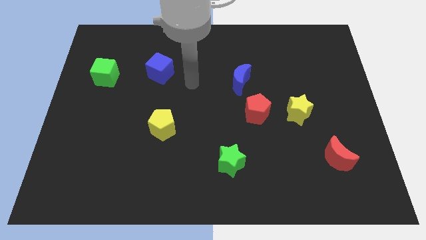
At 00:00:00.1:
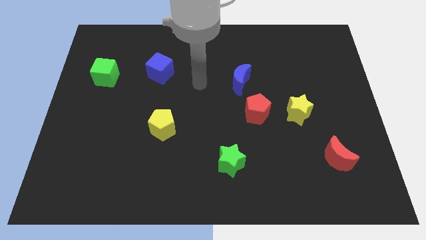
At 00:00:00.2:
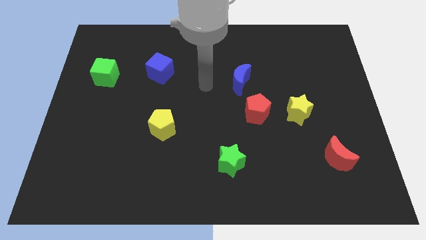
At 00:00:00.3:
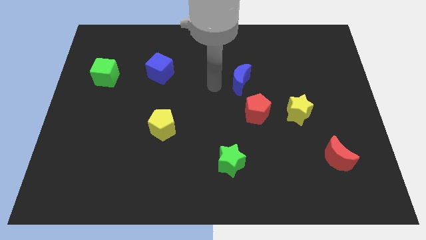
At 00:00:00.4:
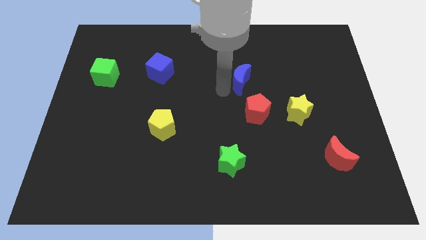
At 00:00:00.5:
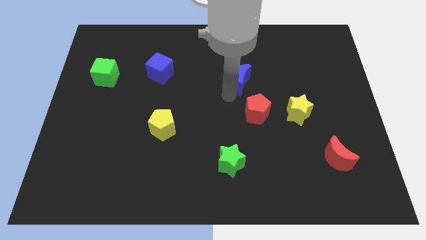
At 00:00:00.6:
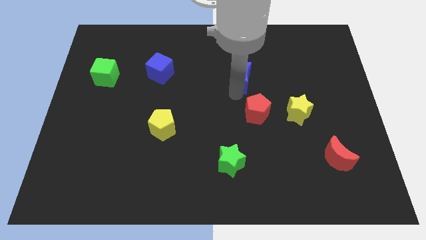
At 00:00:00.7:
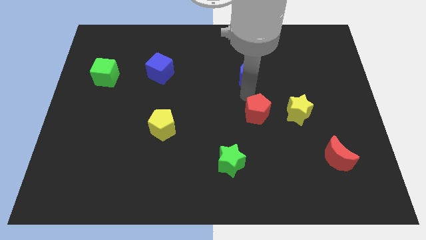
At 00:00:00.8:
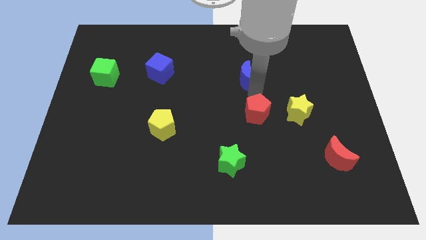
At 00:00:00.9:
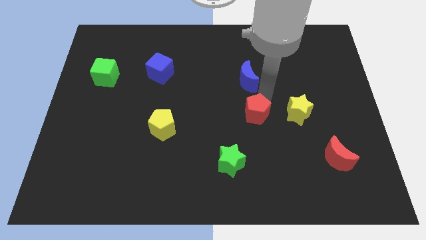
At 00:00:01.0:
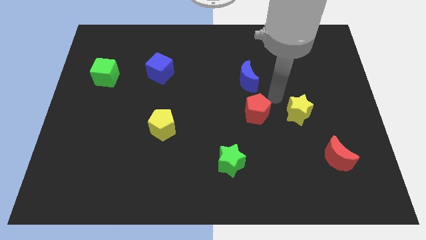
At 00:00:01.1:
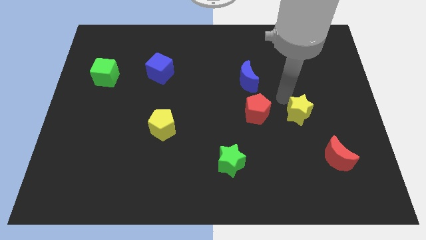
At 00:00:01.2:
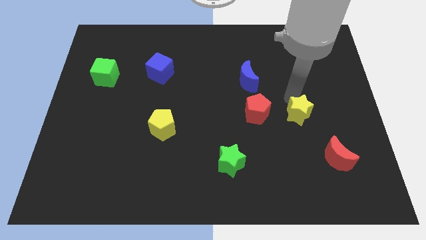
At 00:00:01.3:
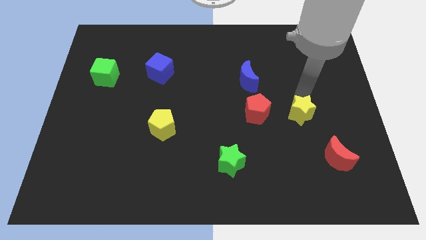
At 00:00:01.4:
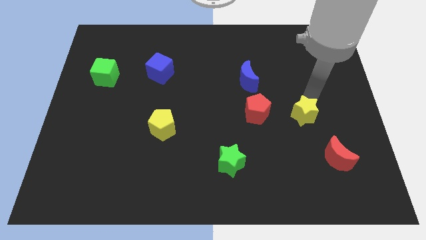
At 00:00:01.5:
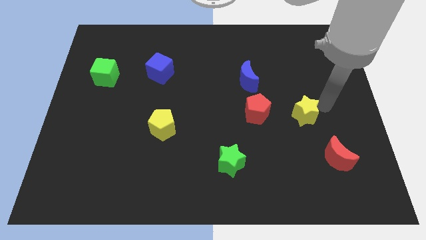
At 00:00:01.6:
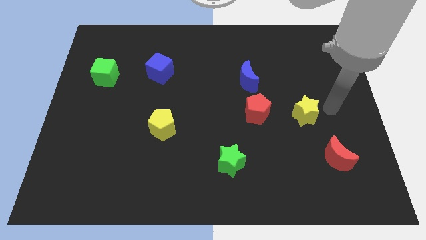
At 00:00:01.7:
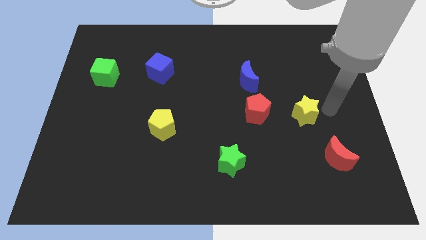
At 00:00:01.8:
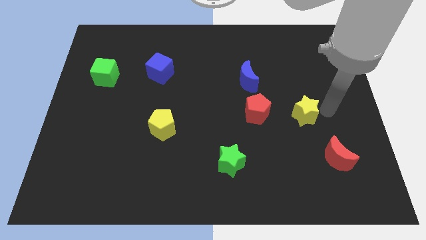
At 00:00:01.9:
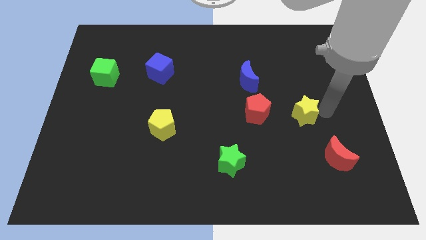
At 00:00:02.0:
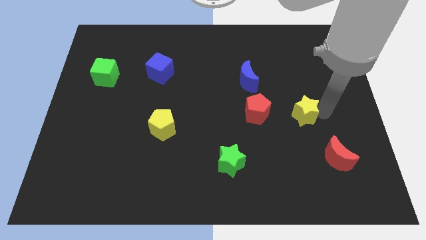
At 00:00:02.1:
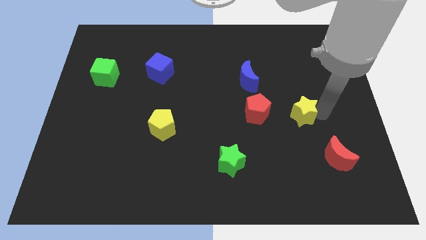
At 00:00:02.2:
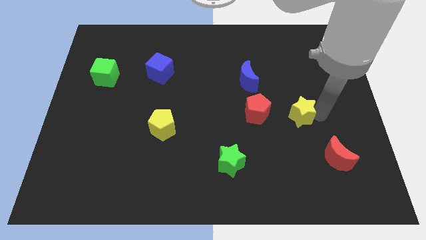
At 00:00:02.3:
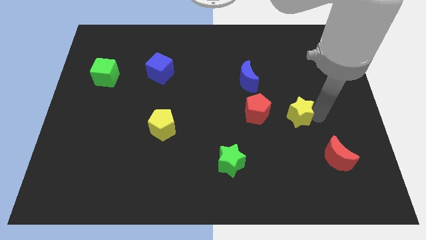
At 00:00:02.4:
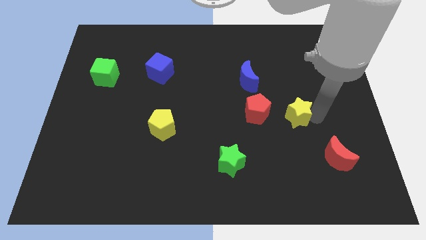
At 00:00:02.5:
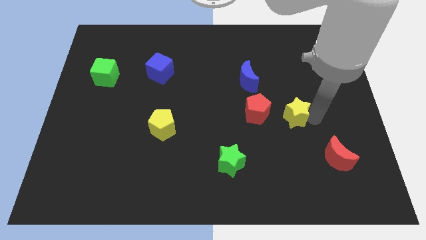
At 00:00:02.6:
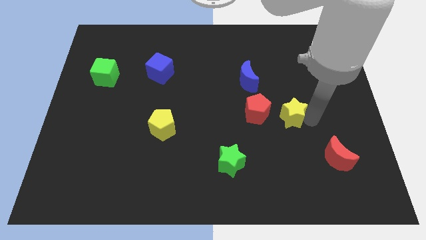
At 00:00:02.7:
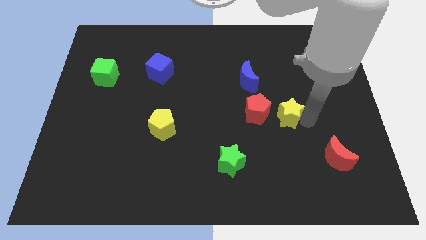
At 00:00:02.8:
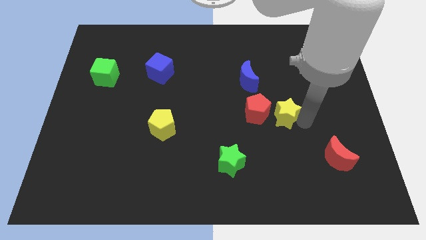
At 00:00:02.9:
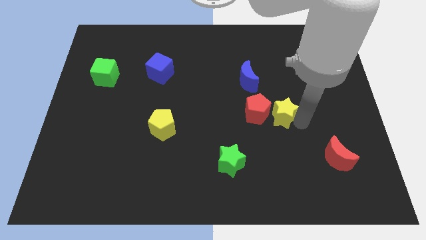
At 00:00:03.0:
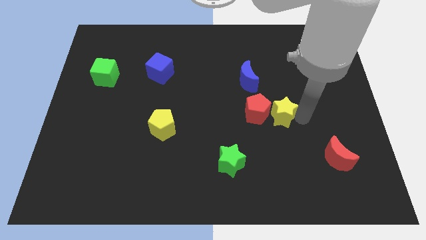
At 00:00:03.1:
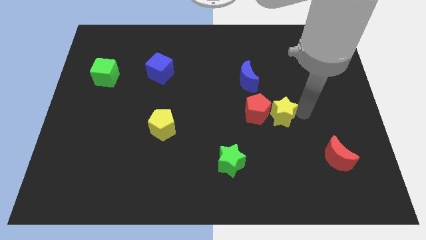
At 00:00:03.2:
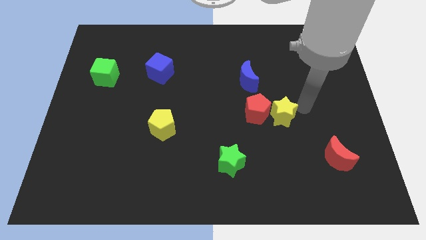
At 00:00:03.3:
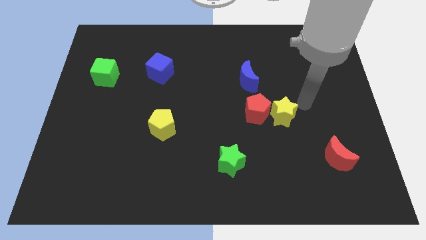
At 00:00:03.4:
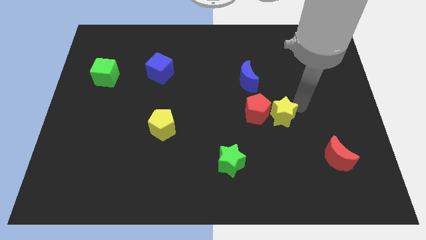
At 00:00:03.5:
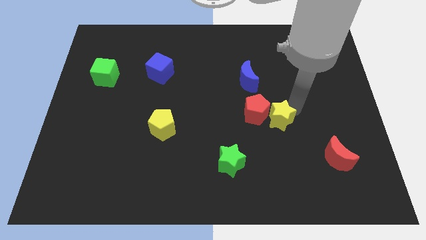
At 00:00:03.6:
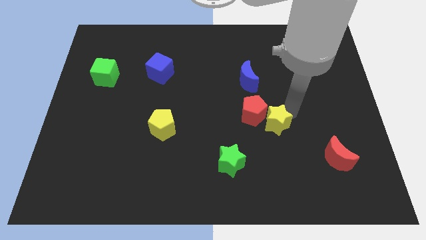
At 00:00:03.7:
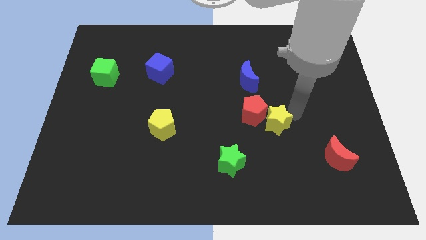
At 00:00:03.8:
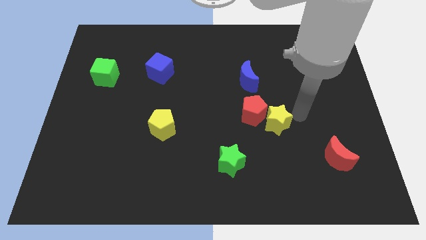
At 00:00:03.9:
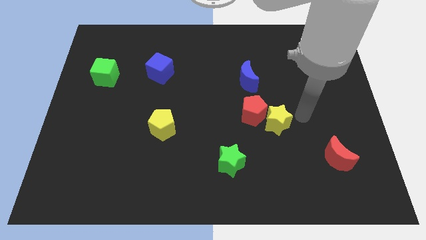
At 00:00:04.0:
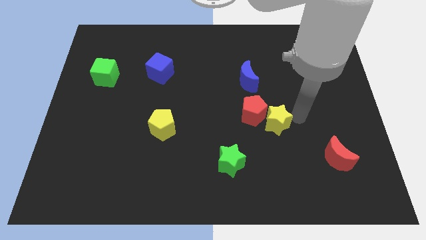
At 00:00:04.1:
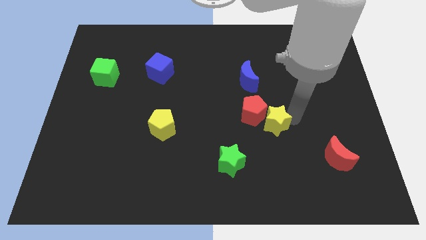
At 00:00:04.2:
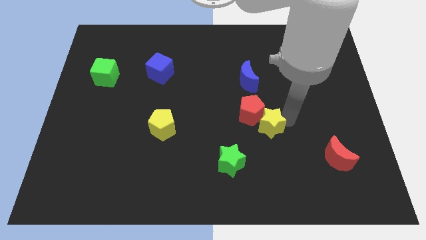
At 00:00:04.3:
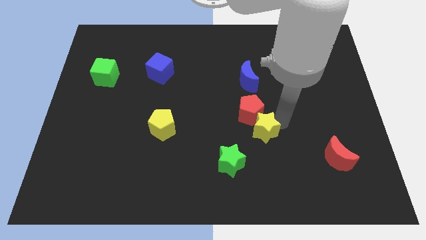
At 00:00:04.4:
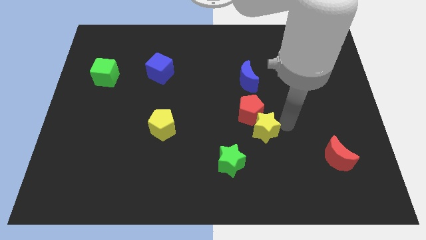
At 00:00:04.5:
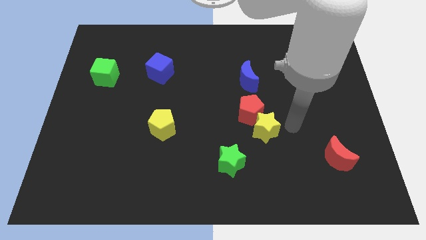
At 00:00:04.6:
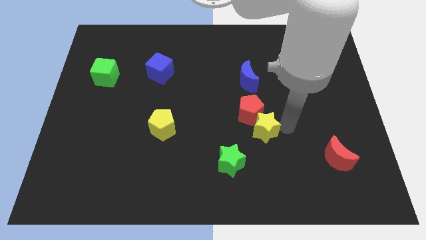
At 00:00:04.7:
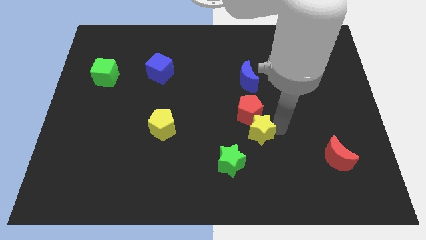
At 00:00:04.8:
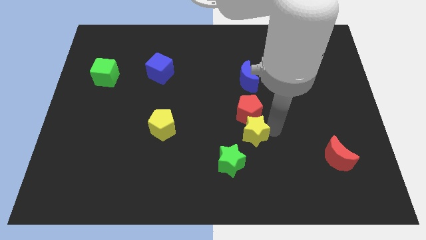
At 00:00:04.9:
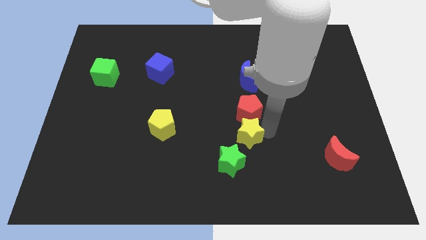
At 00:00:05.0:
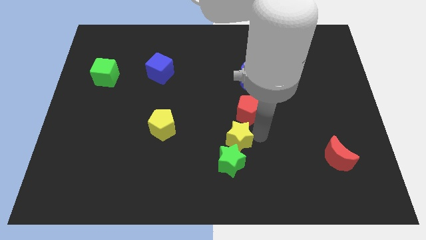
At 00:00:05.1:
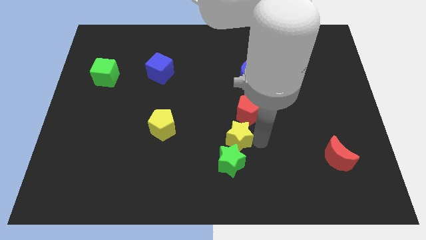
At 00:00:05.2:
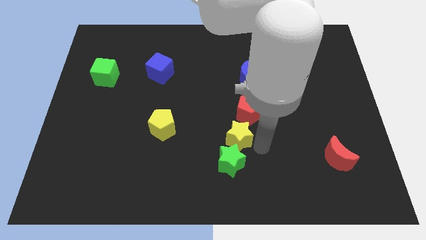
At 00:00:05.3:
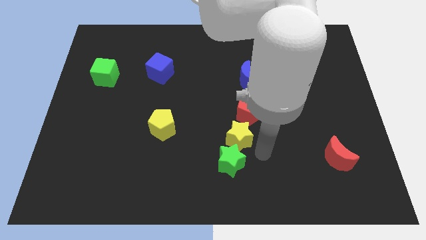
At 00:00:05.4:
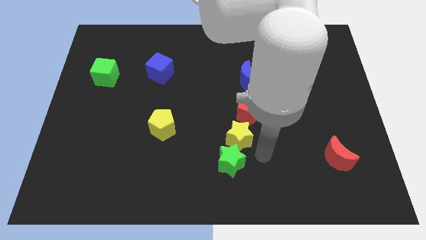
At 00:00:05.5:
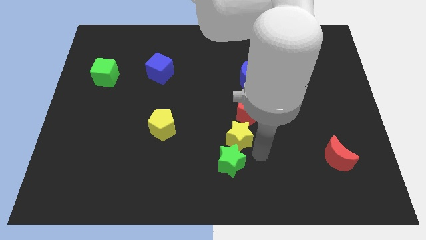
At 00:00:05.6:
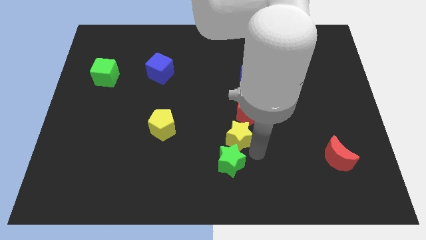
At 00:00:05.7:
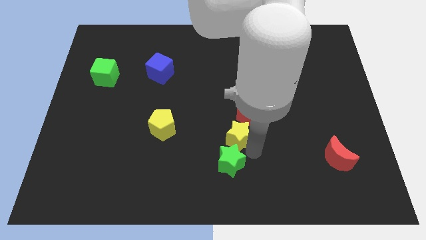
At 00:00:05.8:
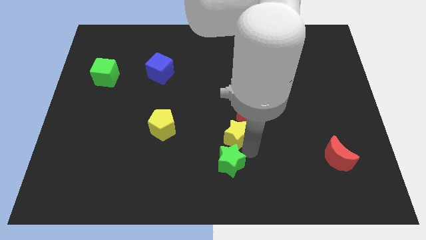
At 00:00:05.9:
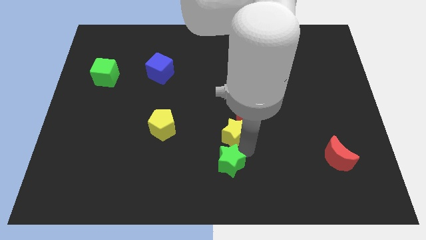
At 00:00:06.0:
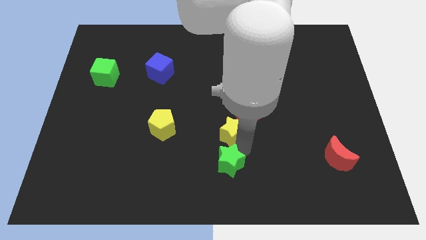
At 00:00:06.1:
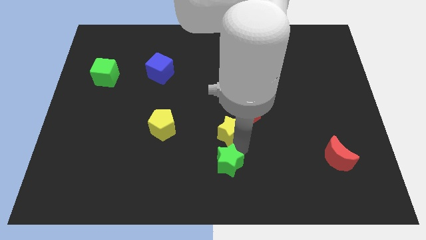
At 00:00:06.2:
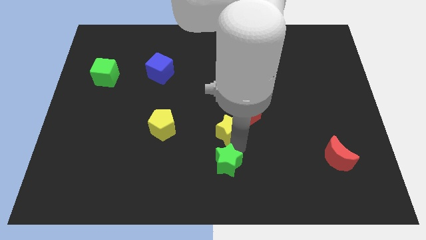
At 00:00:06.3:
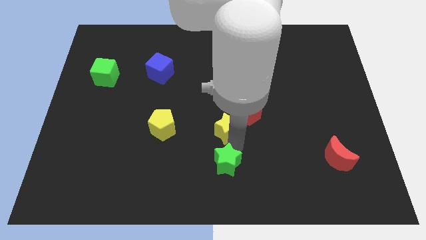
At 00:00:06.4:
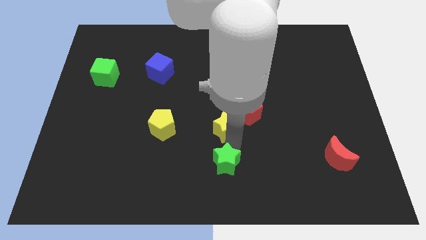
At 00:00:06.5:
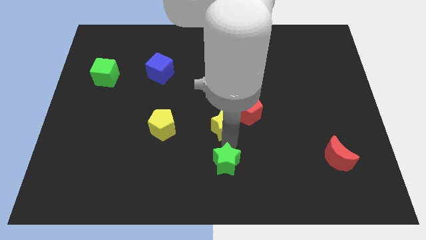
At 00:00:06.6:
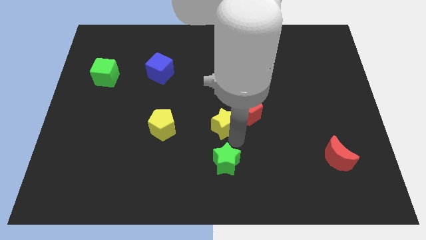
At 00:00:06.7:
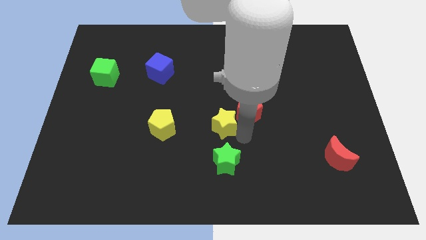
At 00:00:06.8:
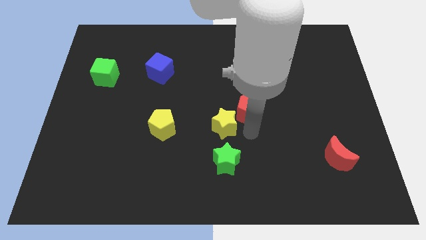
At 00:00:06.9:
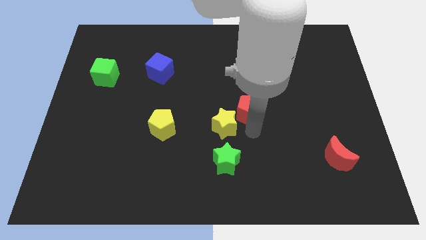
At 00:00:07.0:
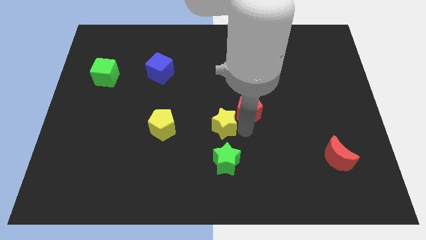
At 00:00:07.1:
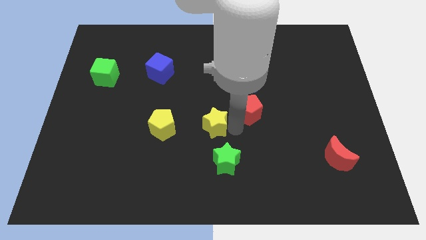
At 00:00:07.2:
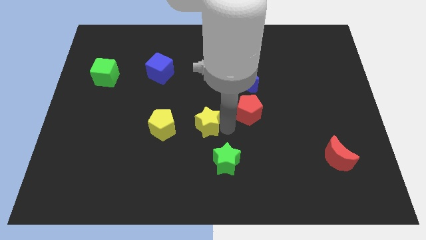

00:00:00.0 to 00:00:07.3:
move the yellow star to the left

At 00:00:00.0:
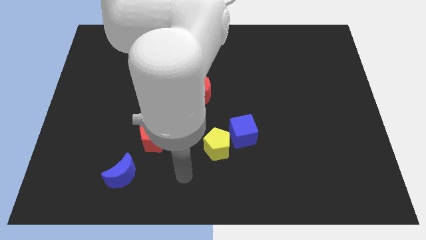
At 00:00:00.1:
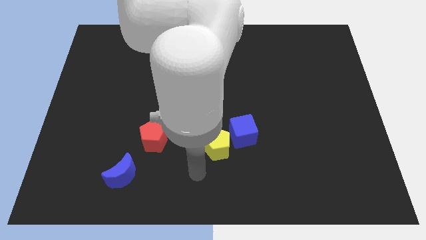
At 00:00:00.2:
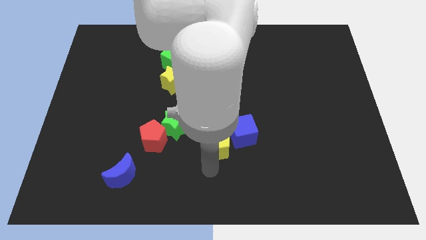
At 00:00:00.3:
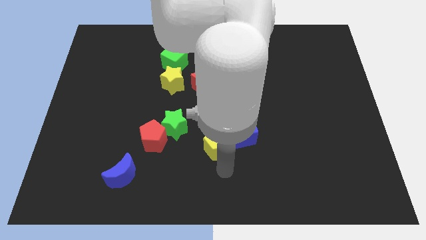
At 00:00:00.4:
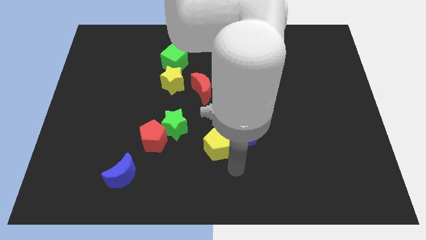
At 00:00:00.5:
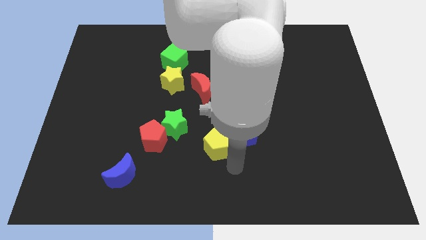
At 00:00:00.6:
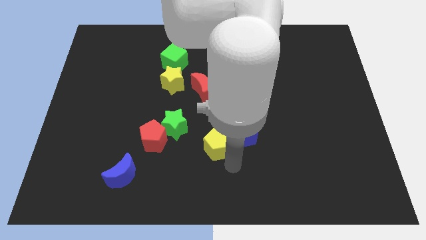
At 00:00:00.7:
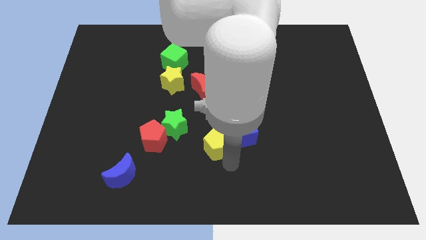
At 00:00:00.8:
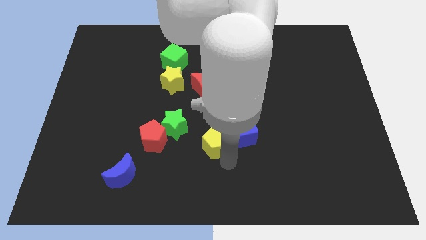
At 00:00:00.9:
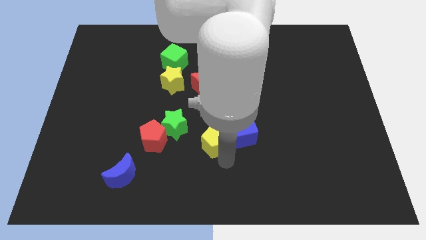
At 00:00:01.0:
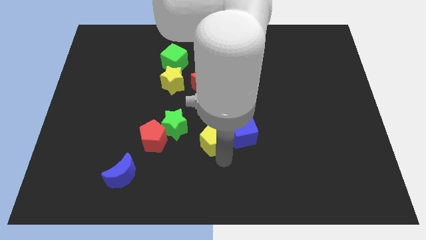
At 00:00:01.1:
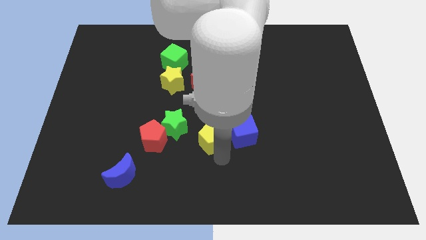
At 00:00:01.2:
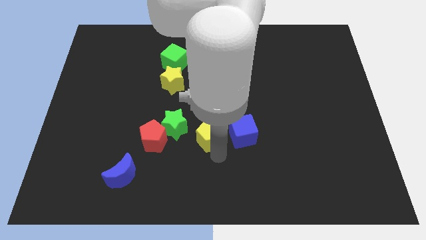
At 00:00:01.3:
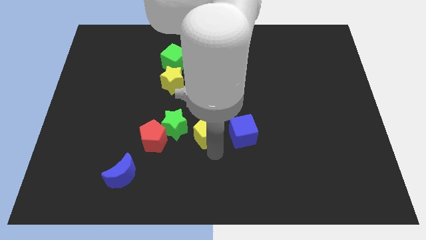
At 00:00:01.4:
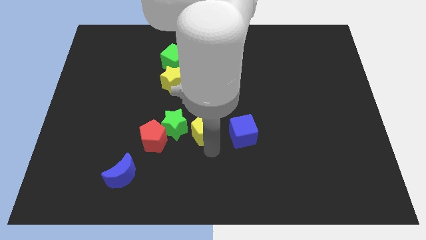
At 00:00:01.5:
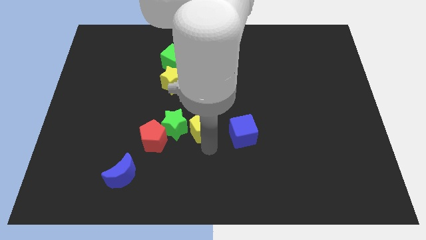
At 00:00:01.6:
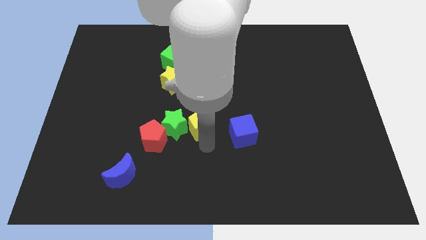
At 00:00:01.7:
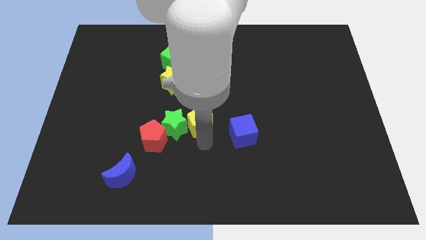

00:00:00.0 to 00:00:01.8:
move the yellow pentagon upwards and then left a little bit
